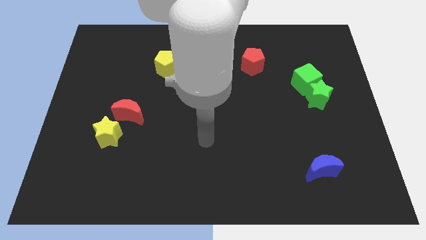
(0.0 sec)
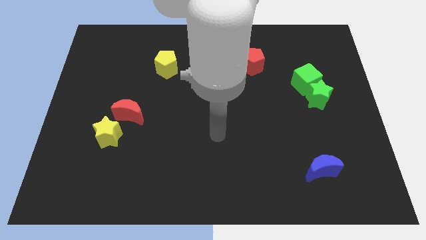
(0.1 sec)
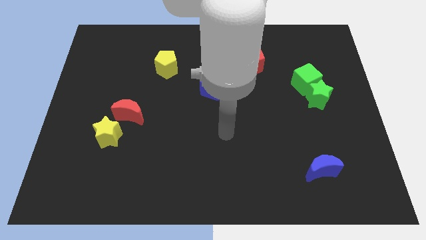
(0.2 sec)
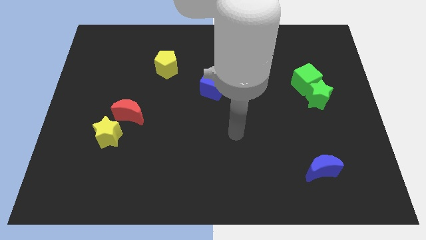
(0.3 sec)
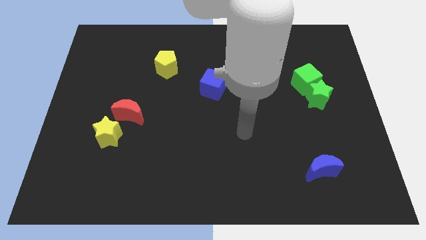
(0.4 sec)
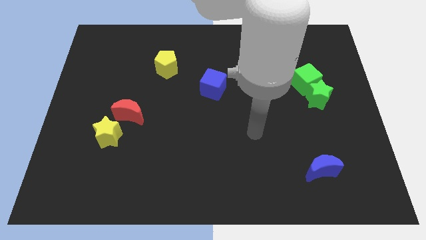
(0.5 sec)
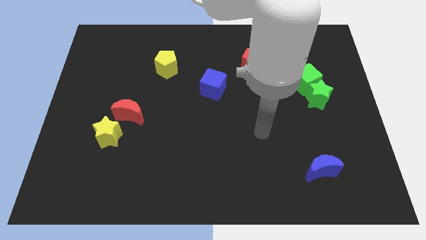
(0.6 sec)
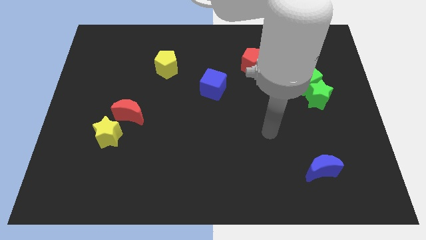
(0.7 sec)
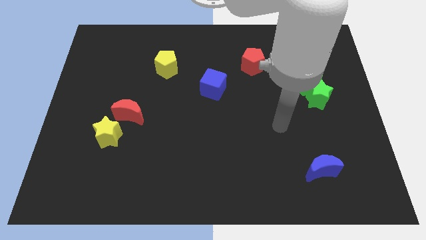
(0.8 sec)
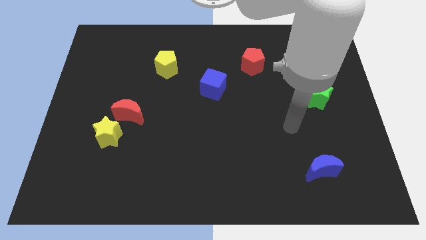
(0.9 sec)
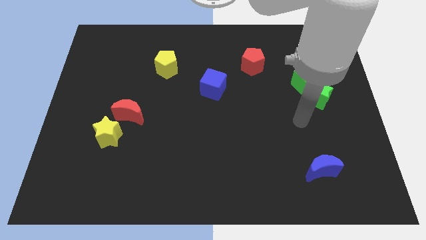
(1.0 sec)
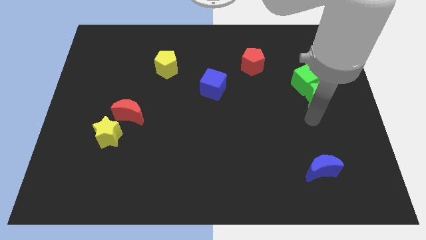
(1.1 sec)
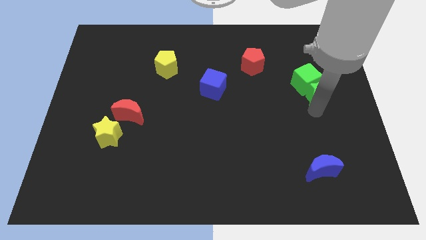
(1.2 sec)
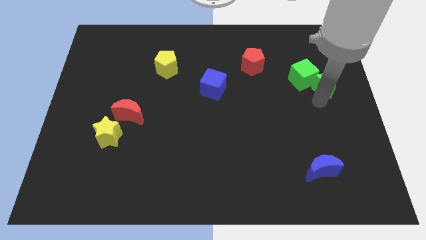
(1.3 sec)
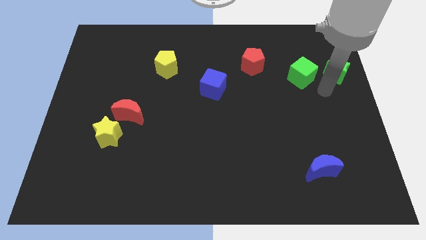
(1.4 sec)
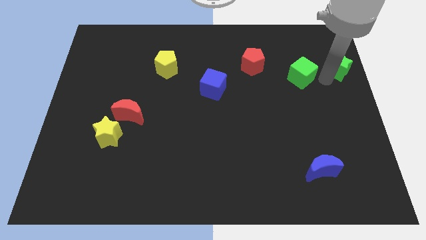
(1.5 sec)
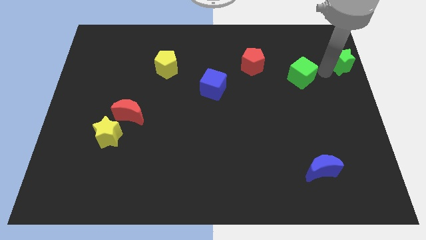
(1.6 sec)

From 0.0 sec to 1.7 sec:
separate the green cube from the green star

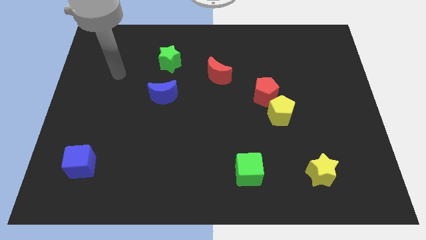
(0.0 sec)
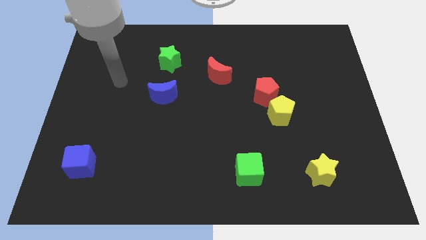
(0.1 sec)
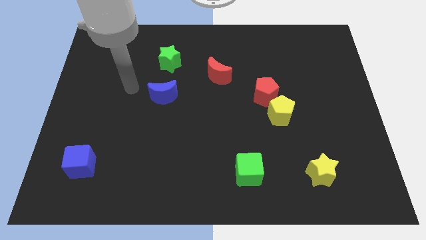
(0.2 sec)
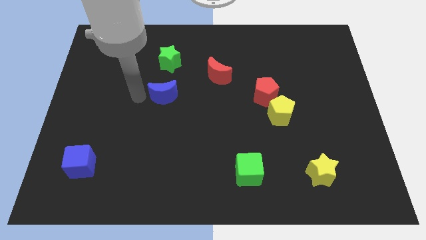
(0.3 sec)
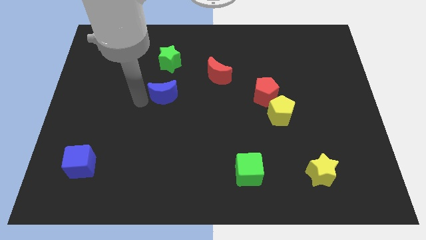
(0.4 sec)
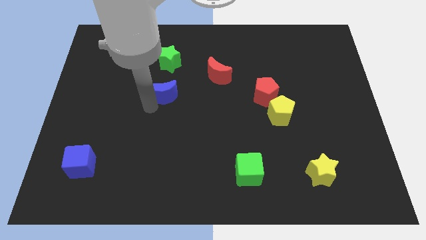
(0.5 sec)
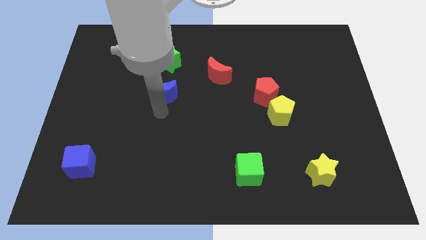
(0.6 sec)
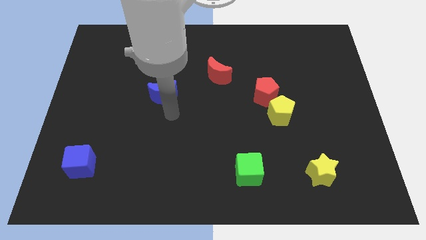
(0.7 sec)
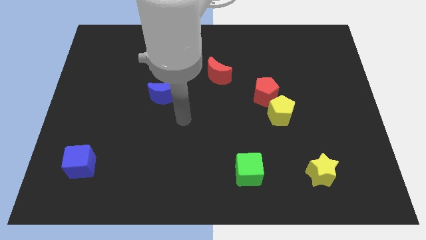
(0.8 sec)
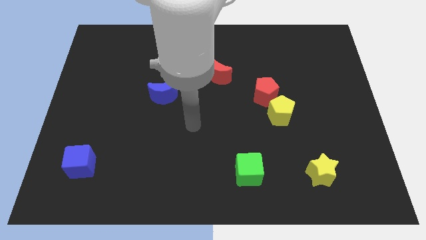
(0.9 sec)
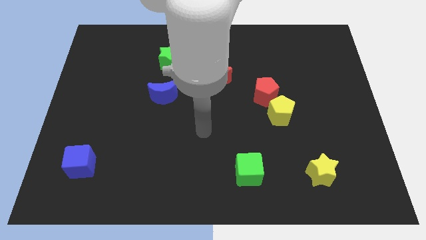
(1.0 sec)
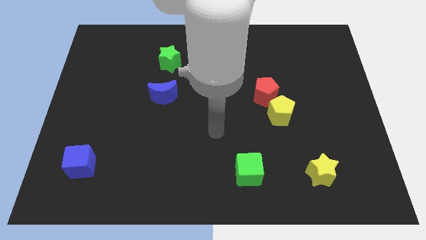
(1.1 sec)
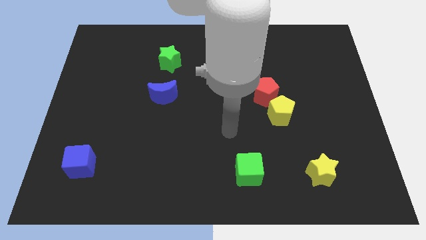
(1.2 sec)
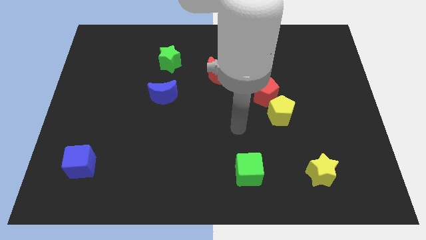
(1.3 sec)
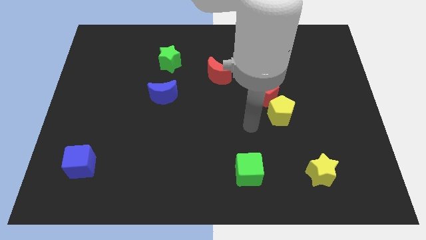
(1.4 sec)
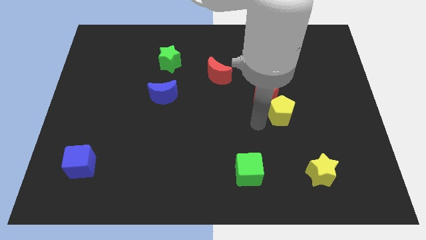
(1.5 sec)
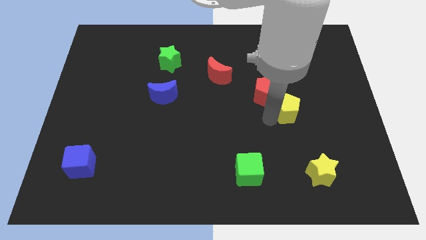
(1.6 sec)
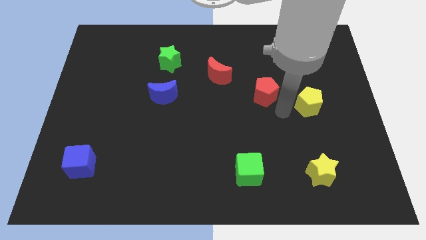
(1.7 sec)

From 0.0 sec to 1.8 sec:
separate the red pentagon from the yellow pentagon

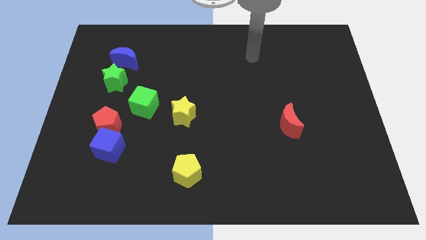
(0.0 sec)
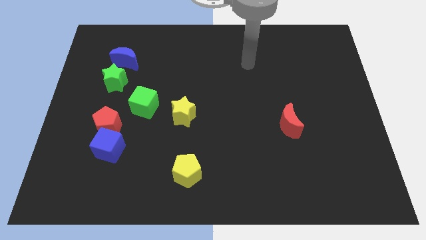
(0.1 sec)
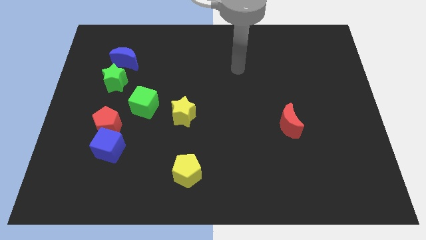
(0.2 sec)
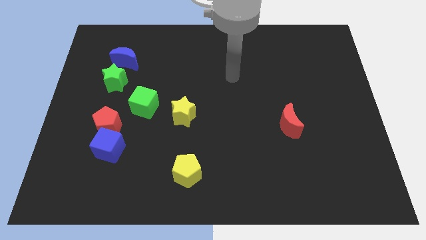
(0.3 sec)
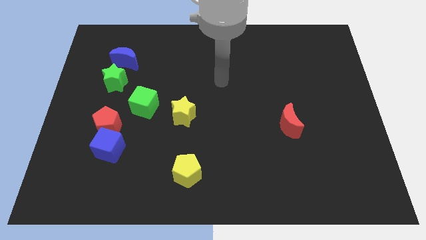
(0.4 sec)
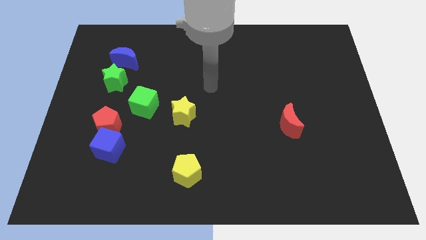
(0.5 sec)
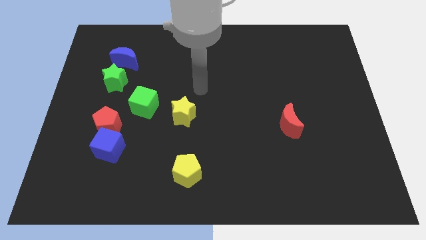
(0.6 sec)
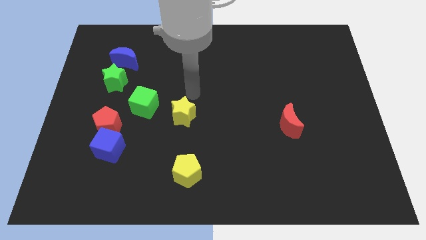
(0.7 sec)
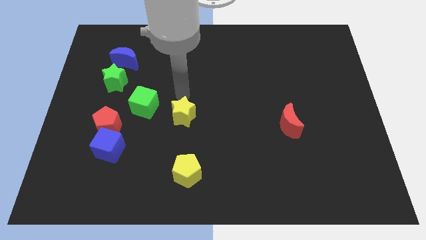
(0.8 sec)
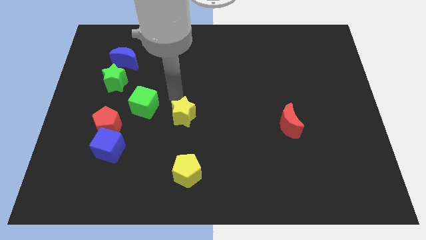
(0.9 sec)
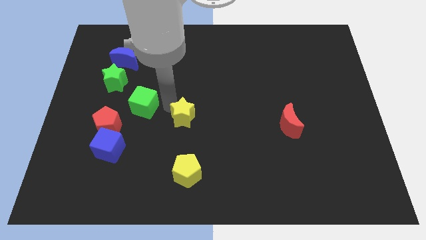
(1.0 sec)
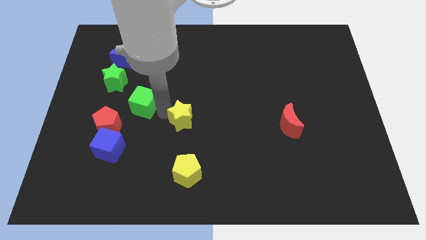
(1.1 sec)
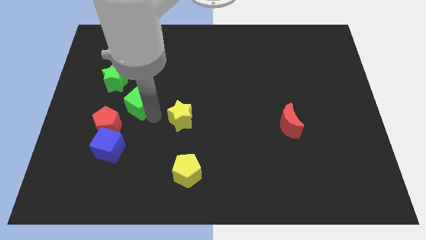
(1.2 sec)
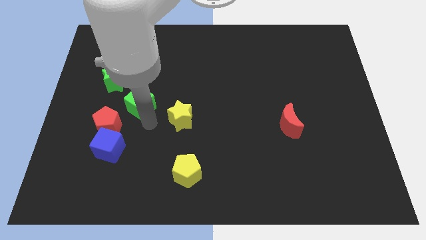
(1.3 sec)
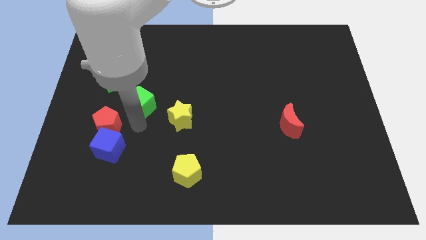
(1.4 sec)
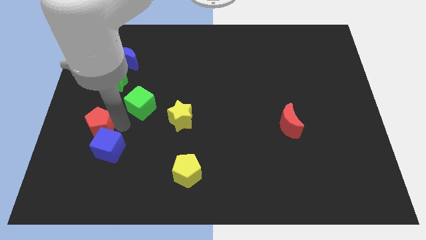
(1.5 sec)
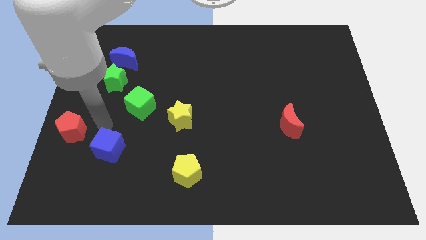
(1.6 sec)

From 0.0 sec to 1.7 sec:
separate the blue cube from the red pentagon

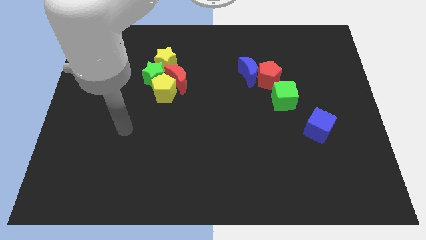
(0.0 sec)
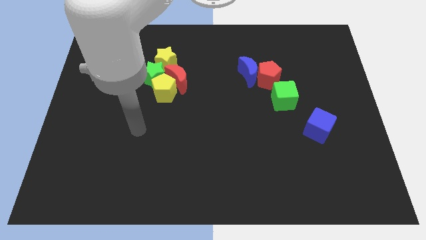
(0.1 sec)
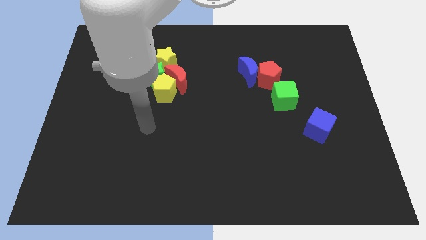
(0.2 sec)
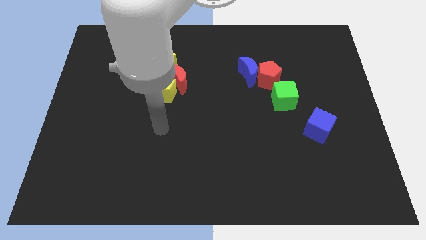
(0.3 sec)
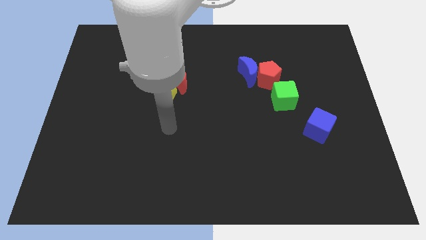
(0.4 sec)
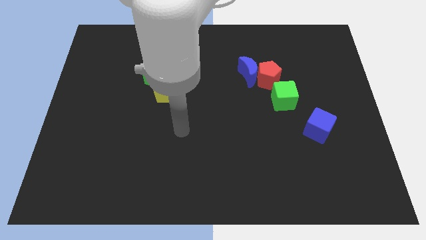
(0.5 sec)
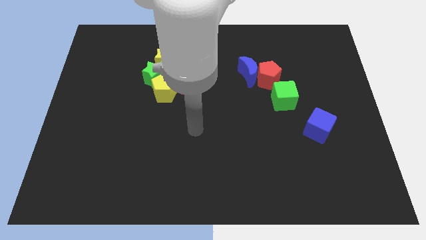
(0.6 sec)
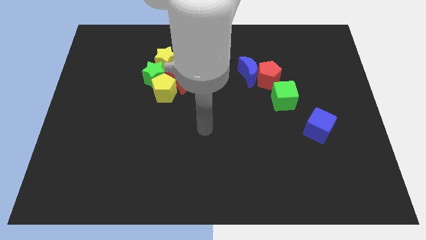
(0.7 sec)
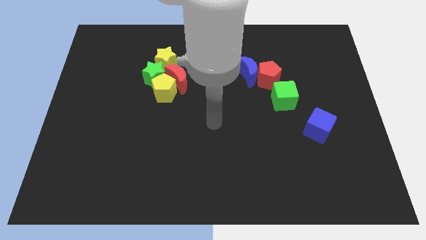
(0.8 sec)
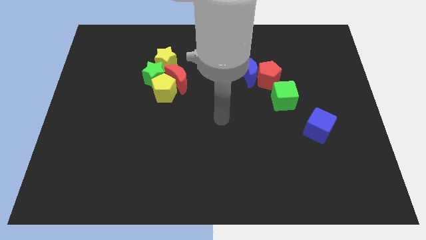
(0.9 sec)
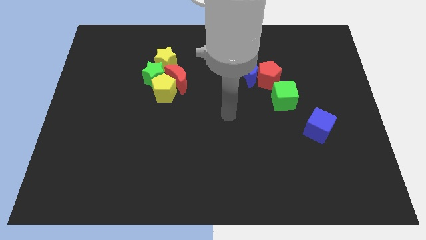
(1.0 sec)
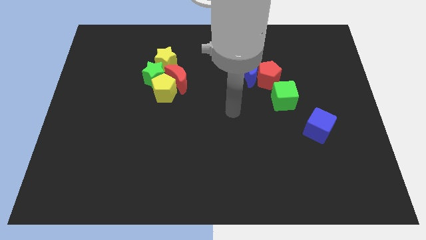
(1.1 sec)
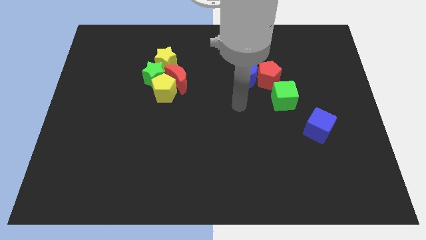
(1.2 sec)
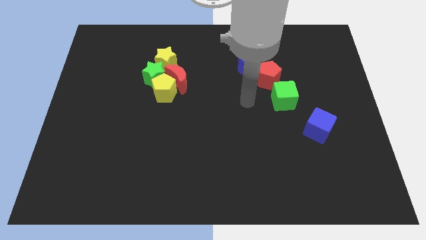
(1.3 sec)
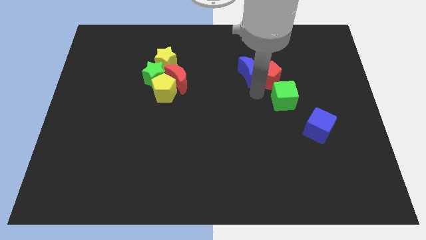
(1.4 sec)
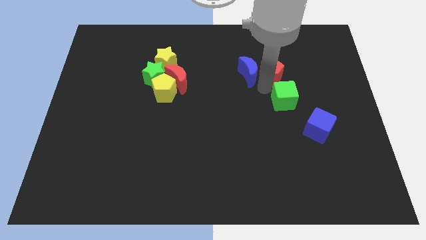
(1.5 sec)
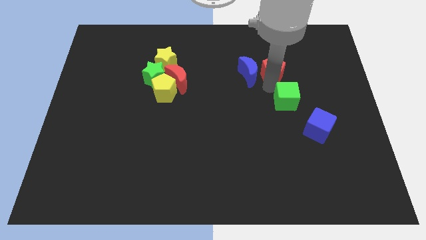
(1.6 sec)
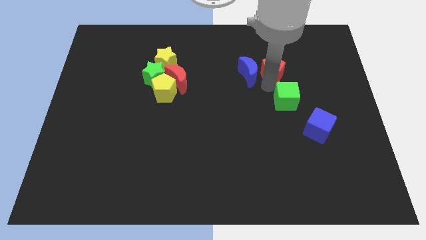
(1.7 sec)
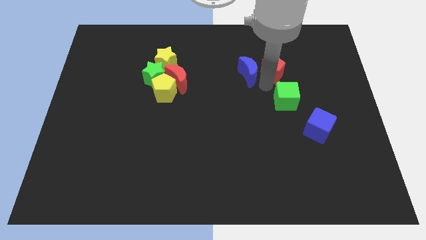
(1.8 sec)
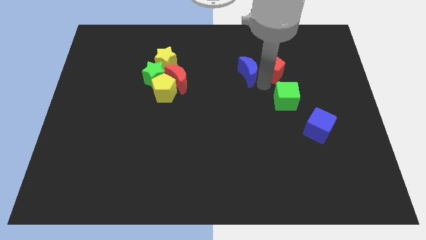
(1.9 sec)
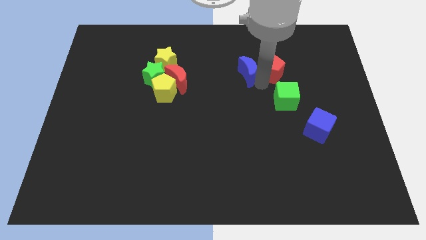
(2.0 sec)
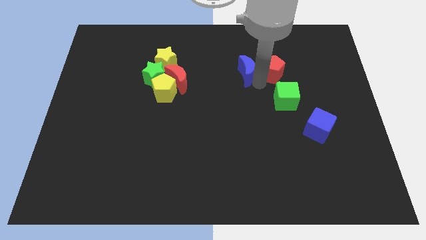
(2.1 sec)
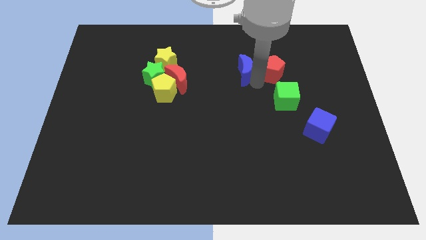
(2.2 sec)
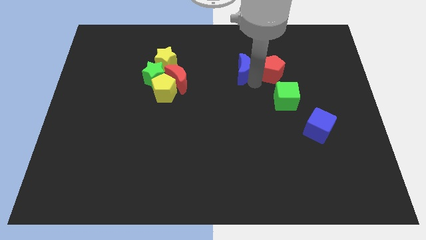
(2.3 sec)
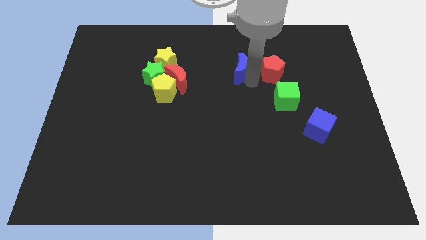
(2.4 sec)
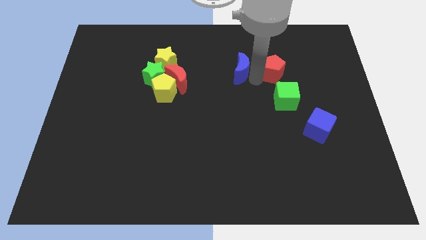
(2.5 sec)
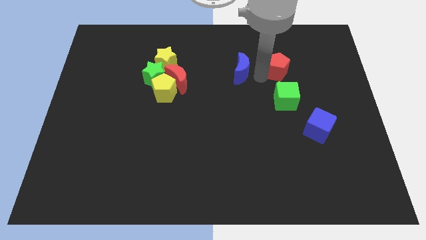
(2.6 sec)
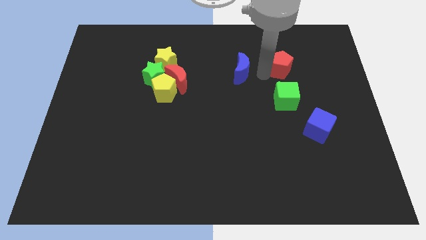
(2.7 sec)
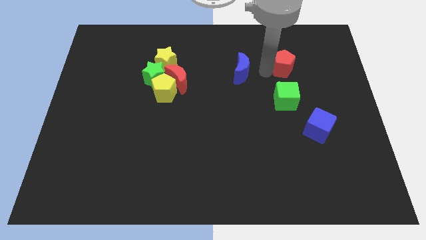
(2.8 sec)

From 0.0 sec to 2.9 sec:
separate the blue moon from the red pentagon

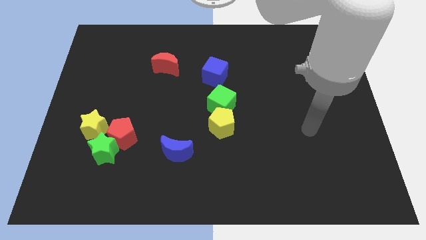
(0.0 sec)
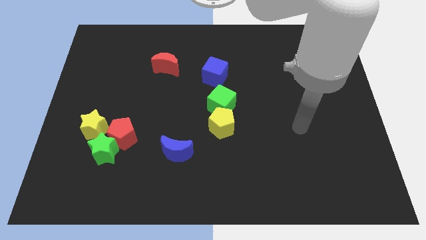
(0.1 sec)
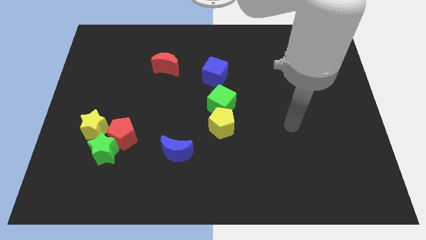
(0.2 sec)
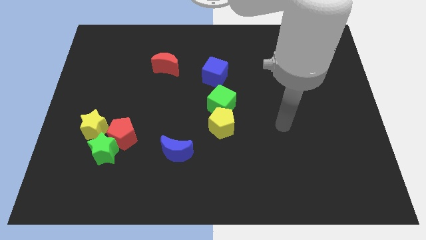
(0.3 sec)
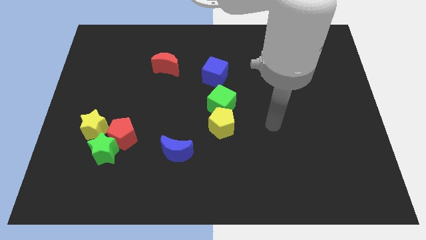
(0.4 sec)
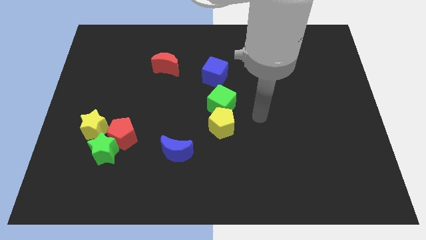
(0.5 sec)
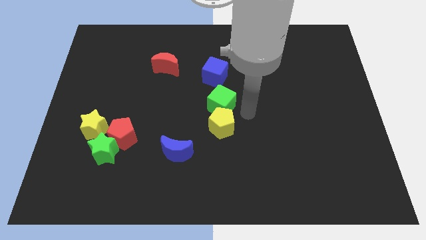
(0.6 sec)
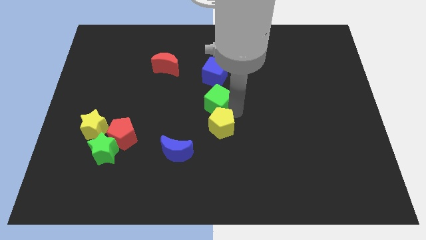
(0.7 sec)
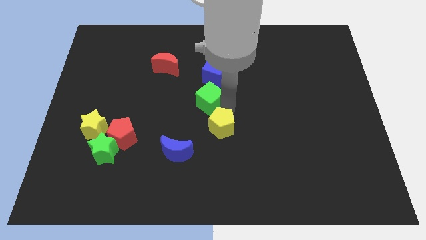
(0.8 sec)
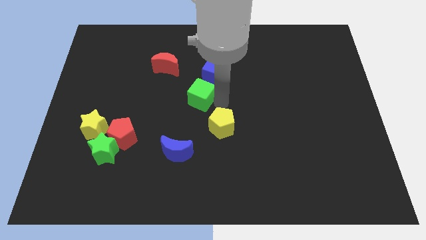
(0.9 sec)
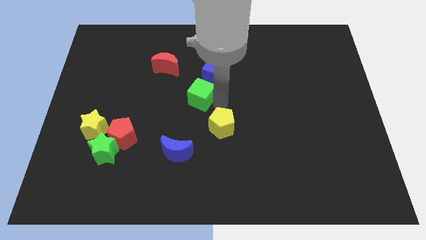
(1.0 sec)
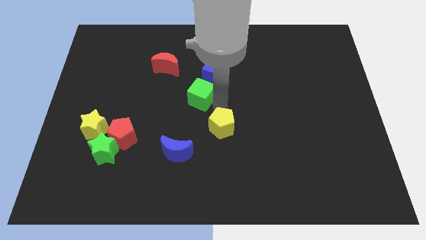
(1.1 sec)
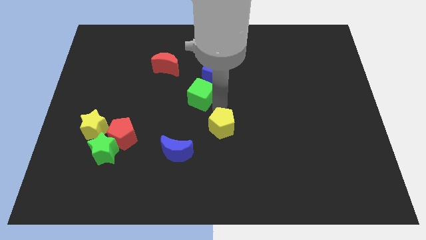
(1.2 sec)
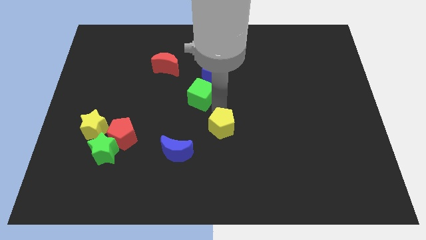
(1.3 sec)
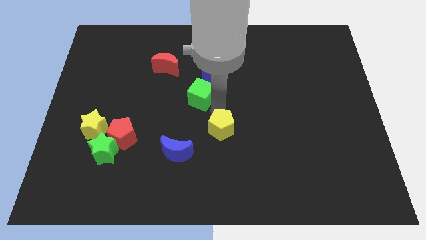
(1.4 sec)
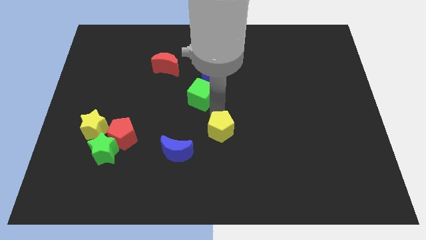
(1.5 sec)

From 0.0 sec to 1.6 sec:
separate the yellow pentagon from the green cube
